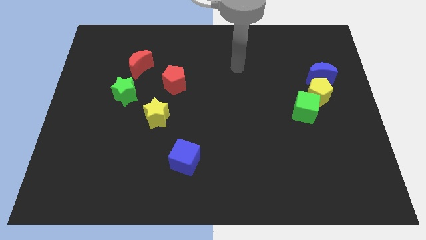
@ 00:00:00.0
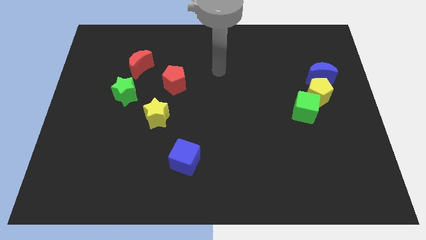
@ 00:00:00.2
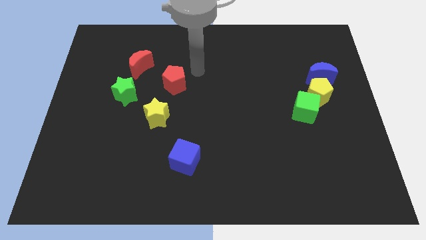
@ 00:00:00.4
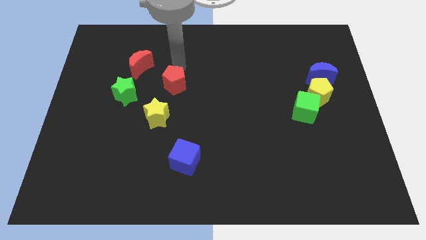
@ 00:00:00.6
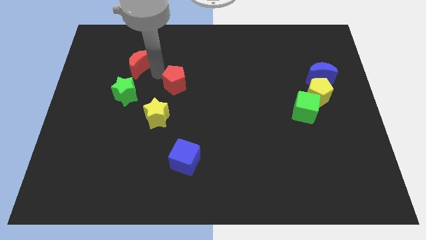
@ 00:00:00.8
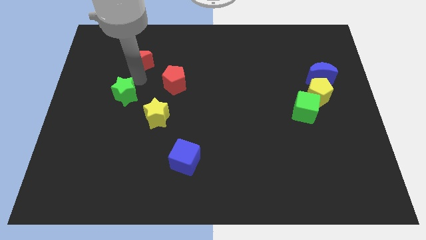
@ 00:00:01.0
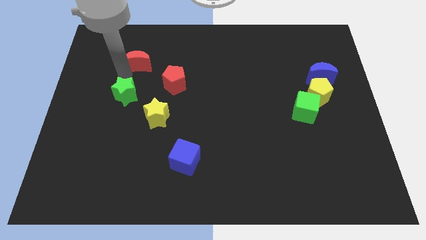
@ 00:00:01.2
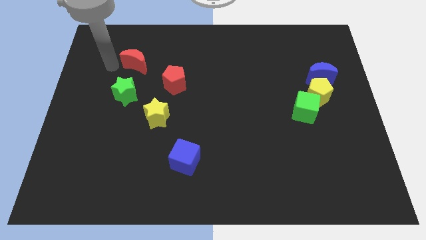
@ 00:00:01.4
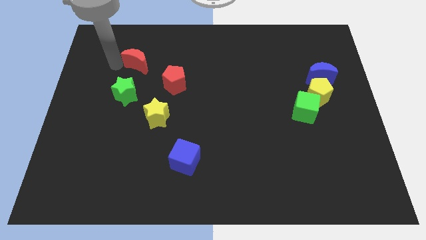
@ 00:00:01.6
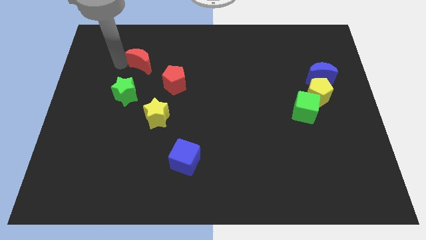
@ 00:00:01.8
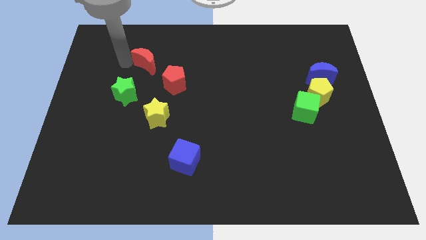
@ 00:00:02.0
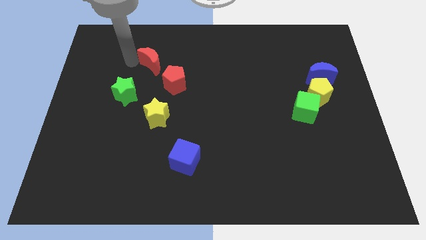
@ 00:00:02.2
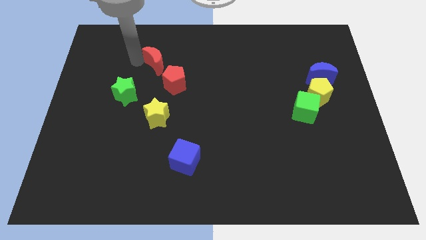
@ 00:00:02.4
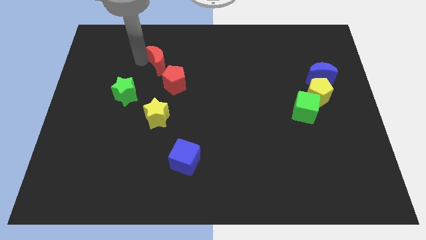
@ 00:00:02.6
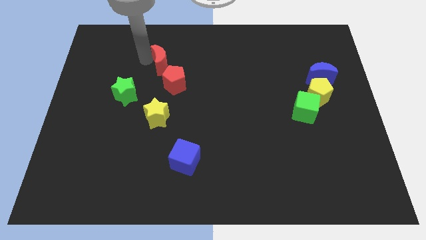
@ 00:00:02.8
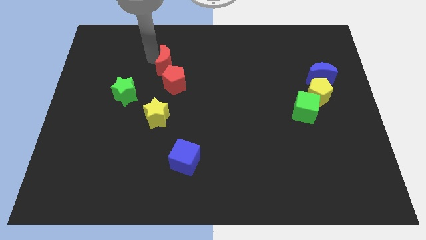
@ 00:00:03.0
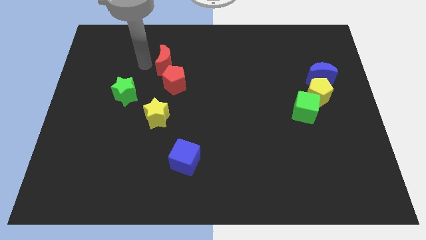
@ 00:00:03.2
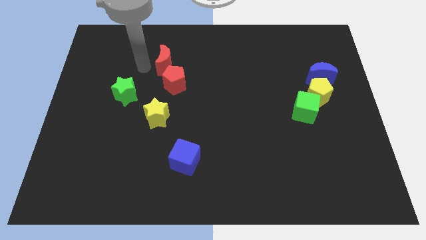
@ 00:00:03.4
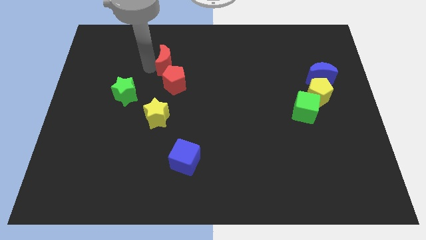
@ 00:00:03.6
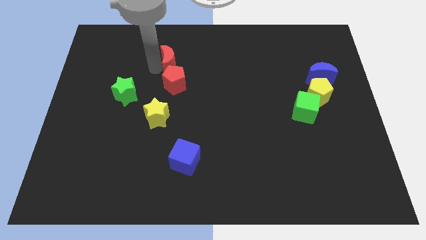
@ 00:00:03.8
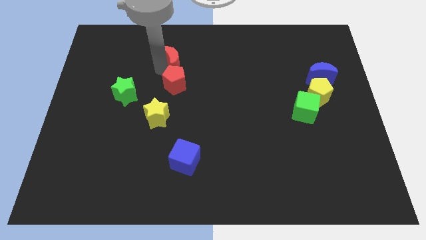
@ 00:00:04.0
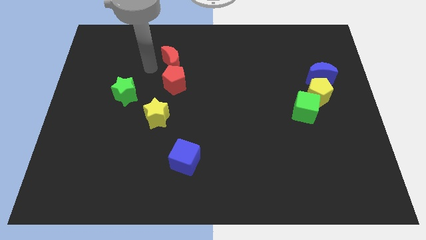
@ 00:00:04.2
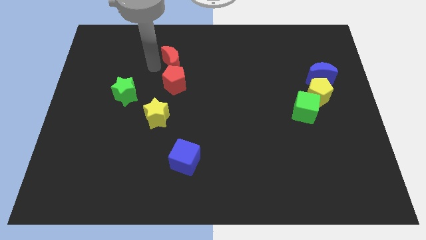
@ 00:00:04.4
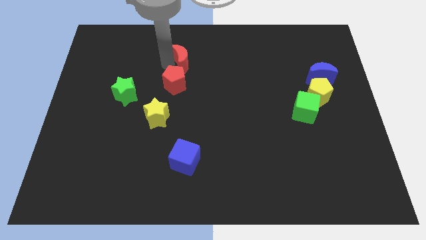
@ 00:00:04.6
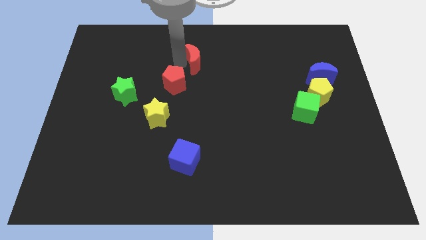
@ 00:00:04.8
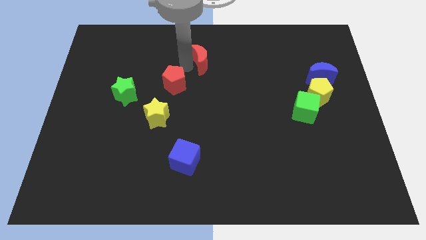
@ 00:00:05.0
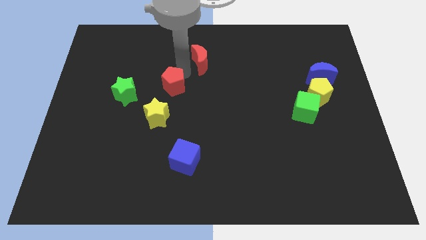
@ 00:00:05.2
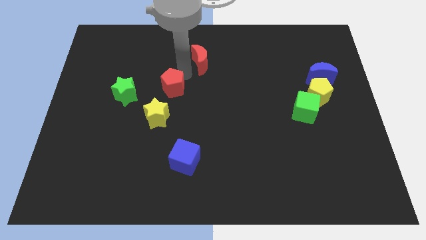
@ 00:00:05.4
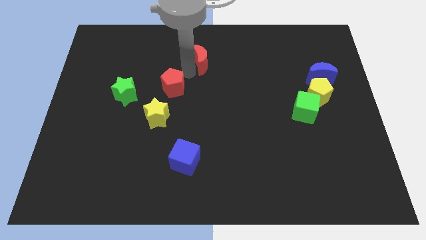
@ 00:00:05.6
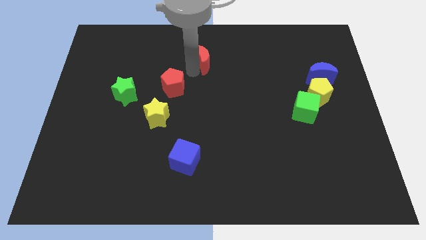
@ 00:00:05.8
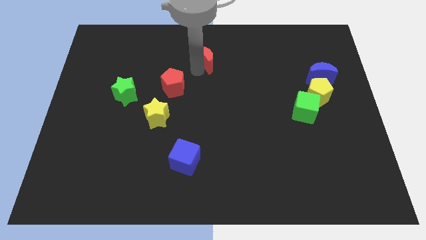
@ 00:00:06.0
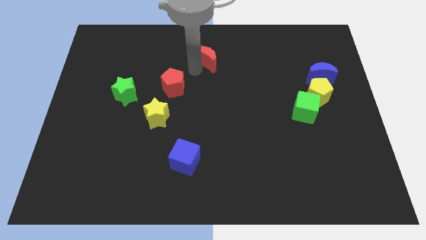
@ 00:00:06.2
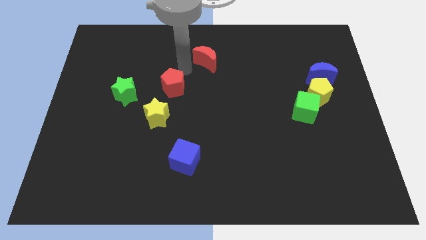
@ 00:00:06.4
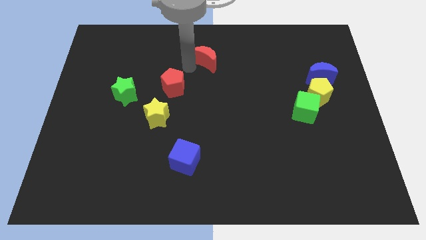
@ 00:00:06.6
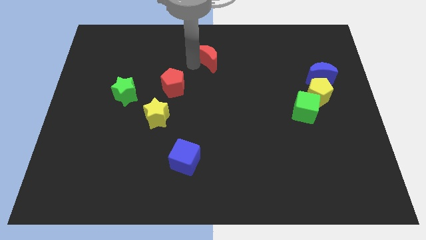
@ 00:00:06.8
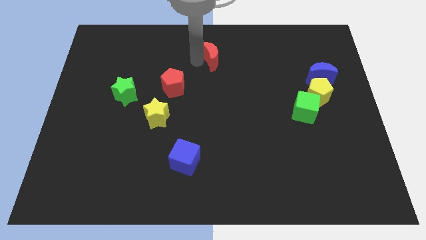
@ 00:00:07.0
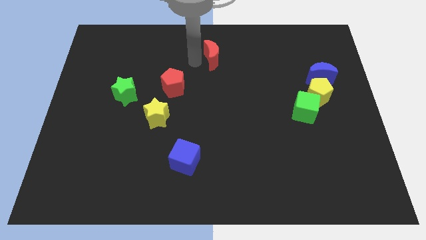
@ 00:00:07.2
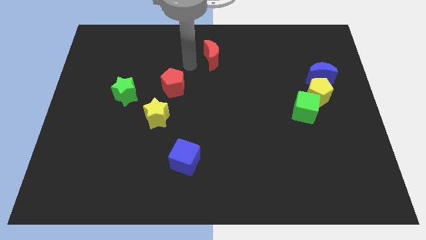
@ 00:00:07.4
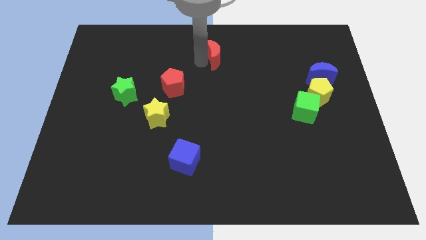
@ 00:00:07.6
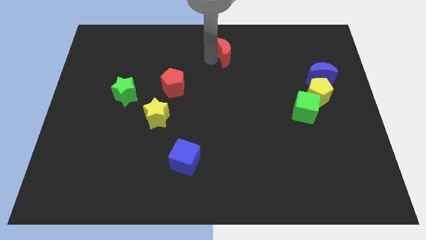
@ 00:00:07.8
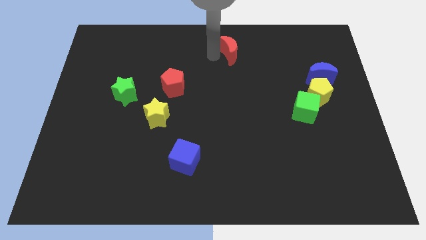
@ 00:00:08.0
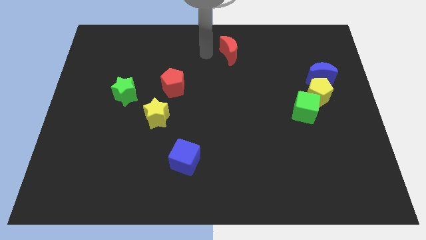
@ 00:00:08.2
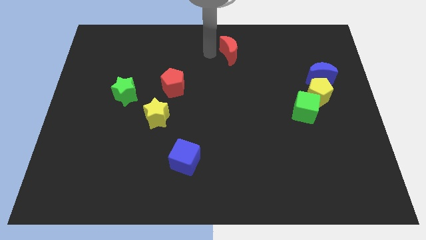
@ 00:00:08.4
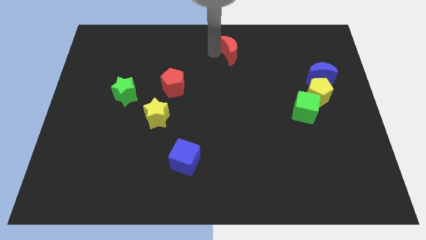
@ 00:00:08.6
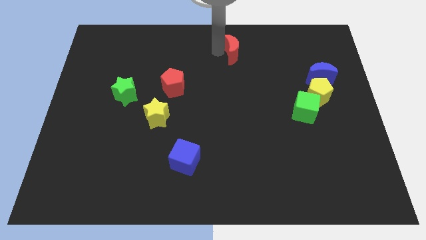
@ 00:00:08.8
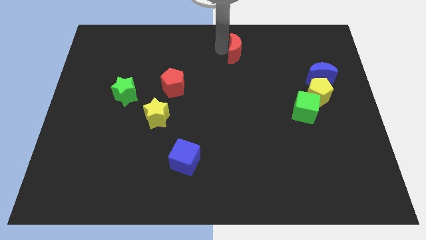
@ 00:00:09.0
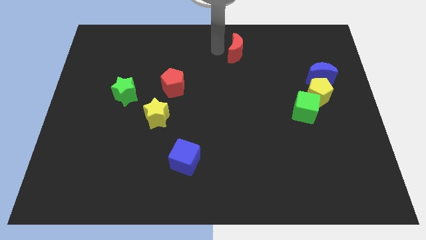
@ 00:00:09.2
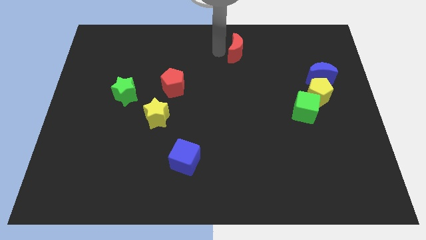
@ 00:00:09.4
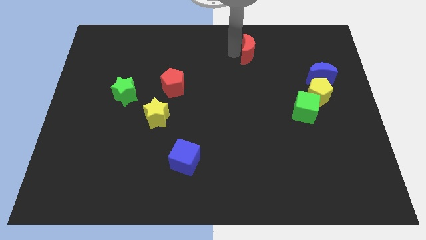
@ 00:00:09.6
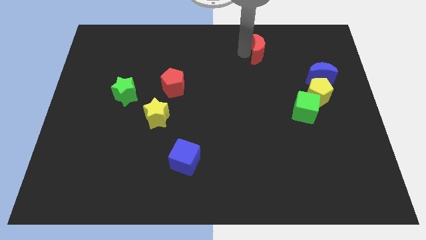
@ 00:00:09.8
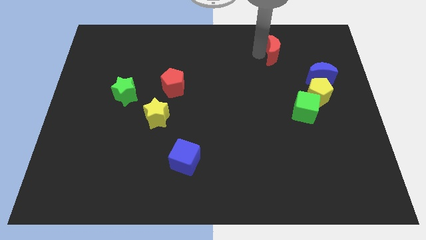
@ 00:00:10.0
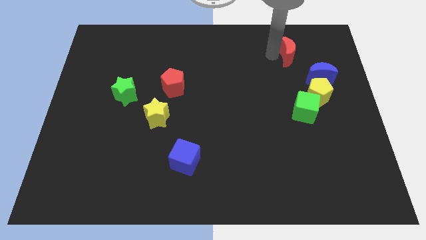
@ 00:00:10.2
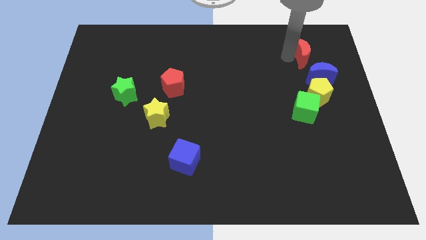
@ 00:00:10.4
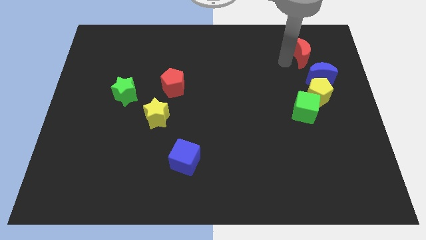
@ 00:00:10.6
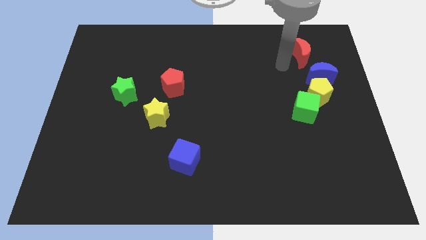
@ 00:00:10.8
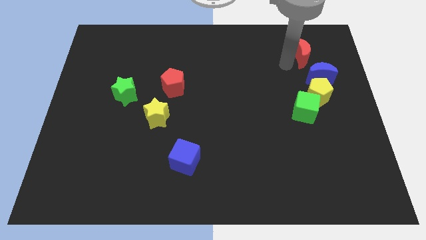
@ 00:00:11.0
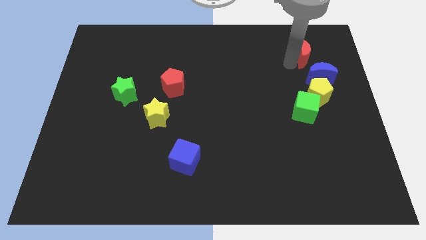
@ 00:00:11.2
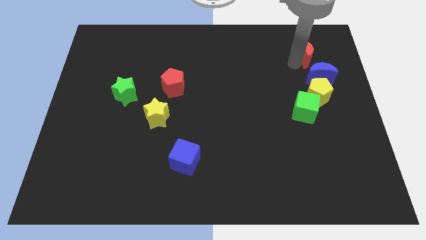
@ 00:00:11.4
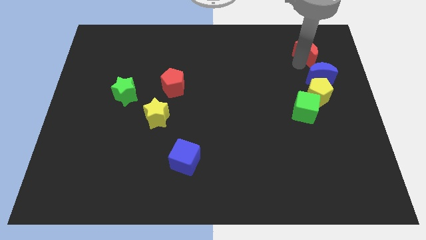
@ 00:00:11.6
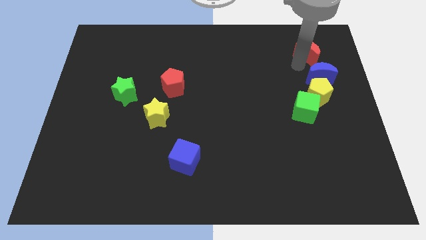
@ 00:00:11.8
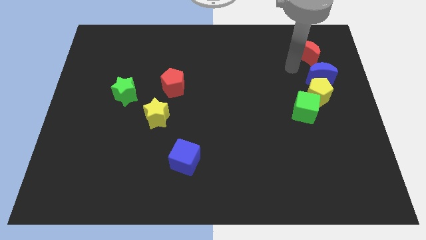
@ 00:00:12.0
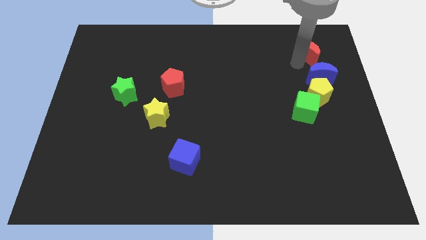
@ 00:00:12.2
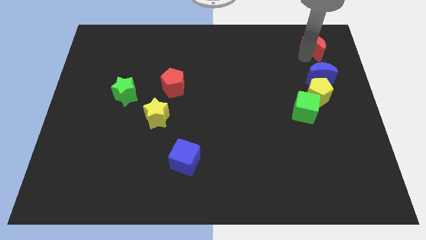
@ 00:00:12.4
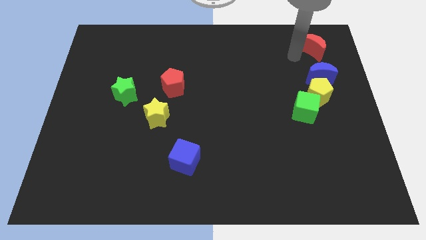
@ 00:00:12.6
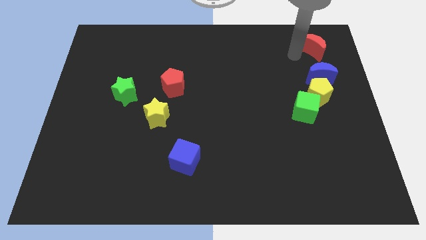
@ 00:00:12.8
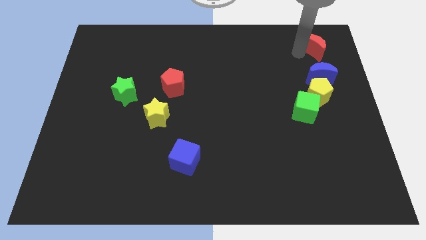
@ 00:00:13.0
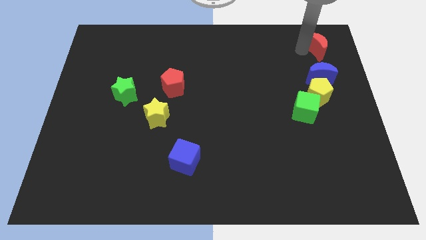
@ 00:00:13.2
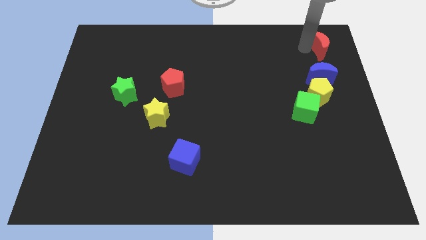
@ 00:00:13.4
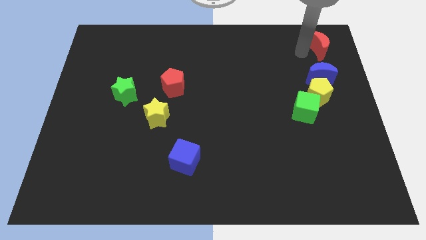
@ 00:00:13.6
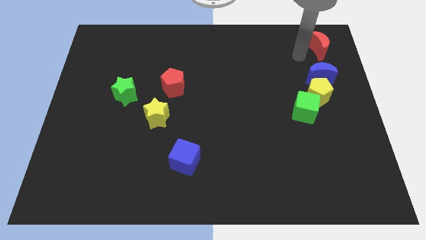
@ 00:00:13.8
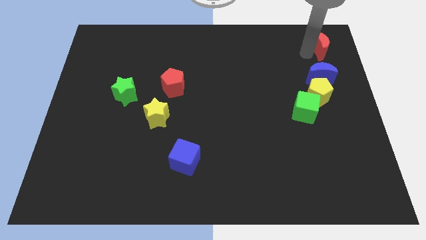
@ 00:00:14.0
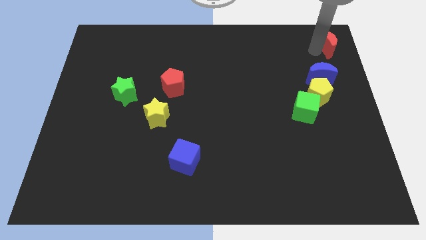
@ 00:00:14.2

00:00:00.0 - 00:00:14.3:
slide the red moon to the top right of the board
